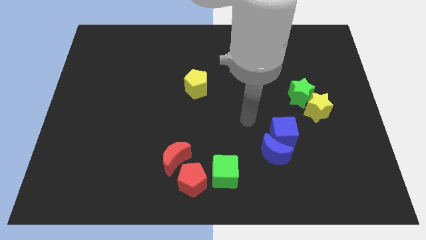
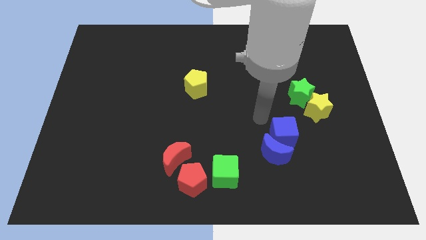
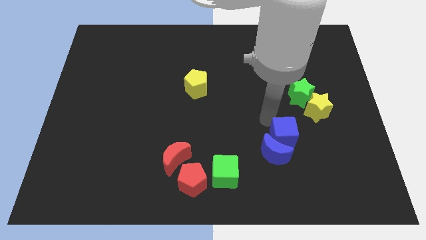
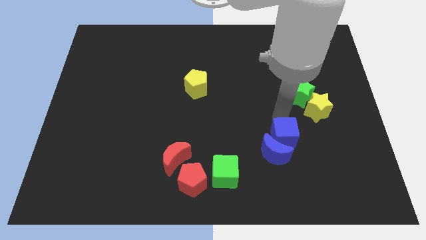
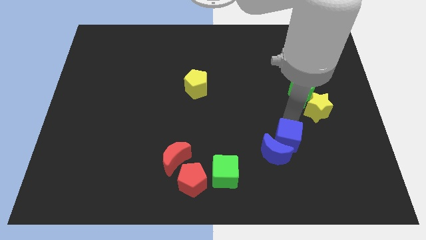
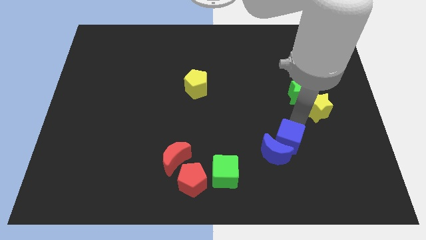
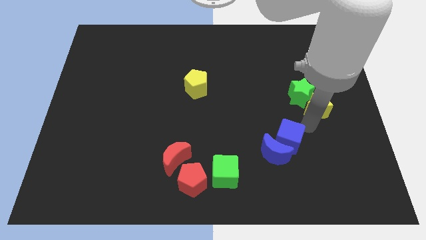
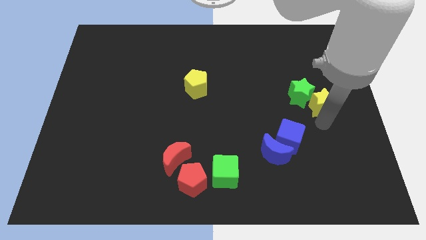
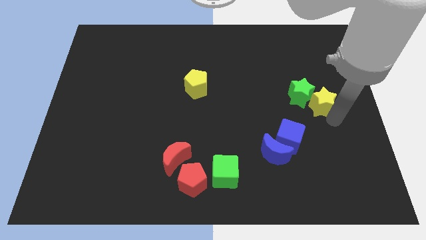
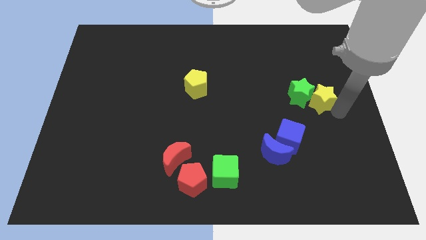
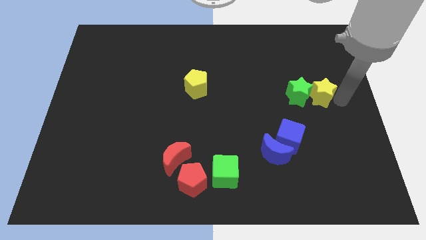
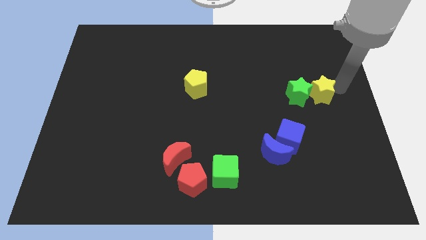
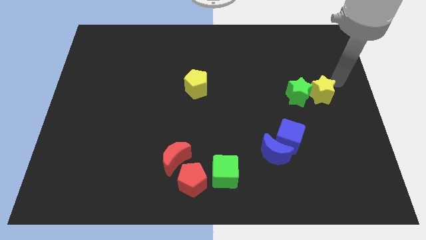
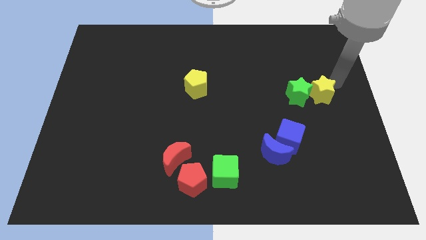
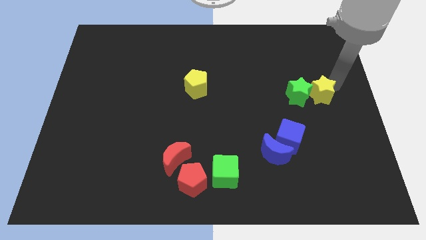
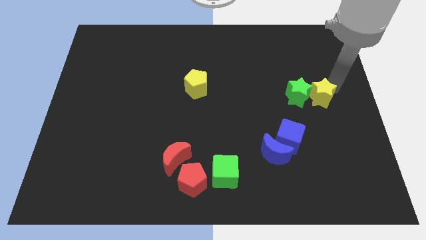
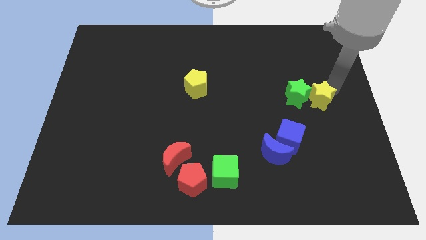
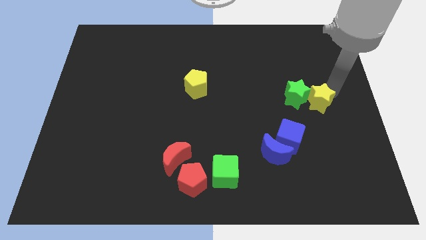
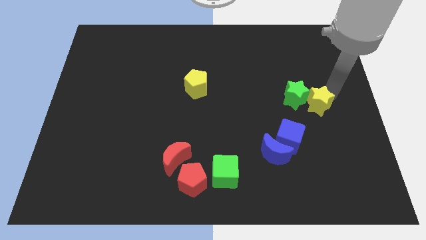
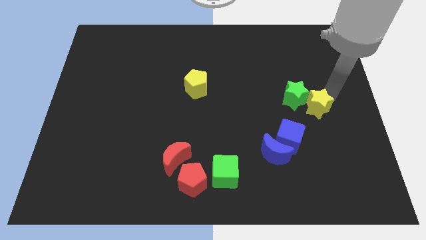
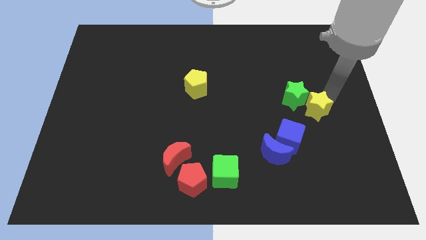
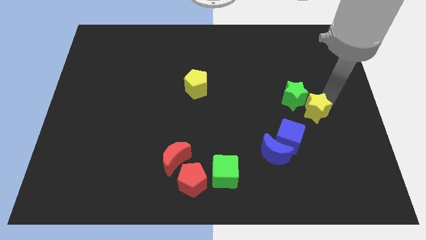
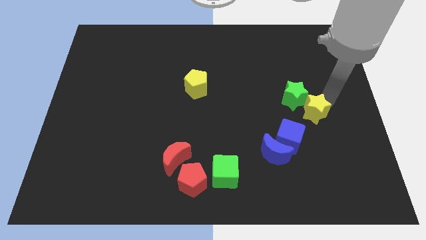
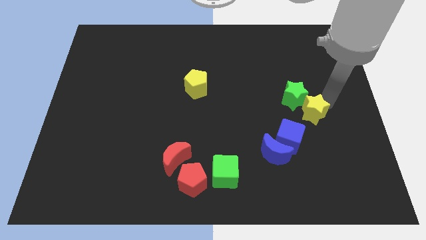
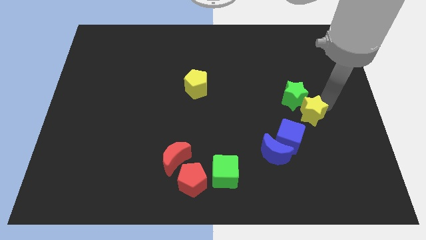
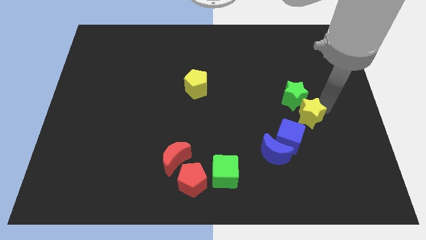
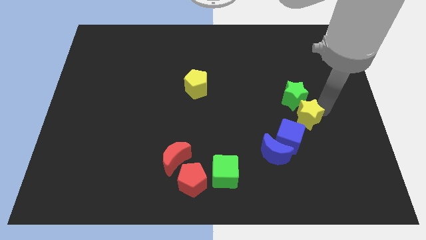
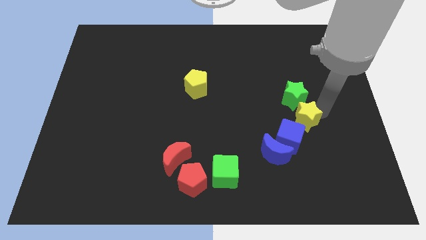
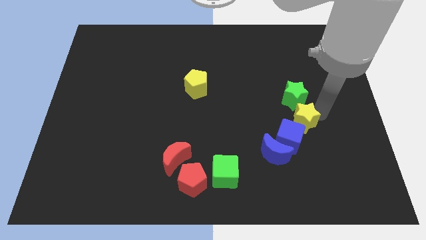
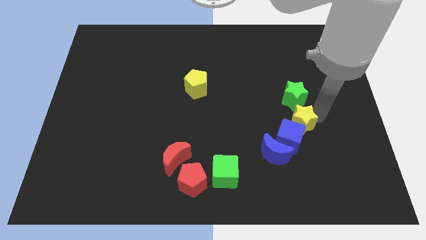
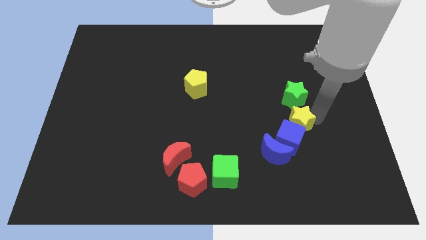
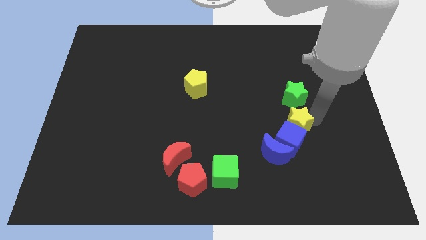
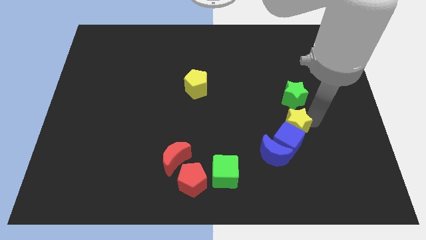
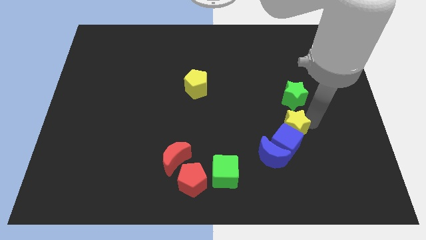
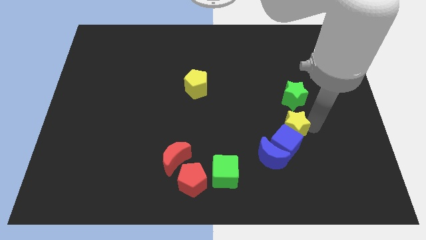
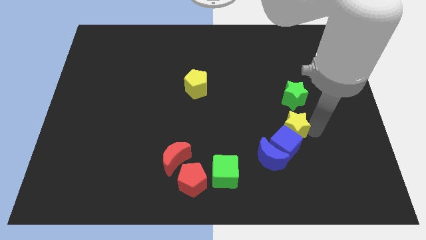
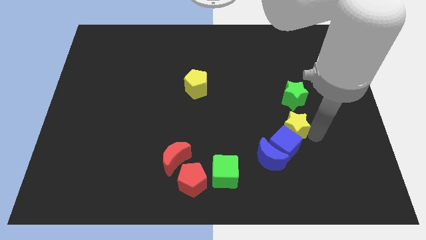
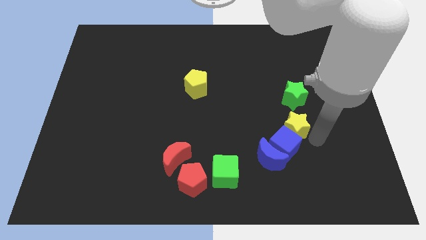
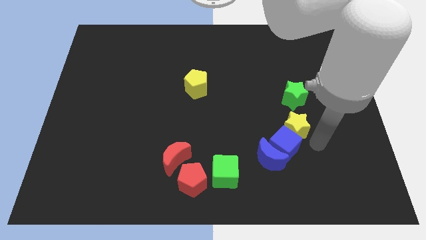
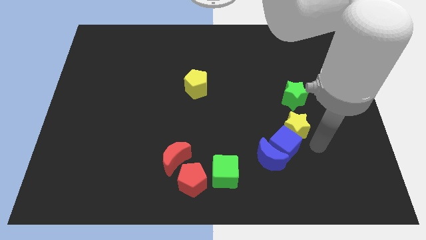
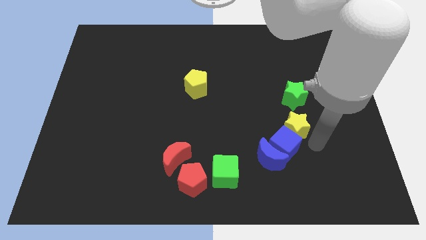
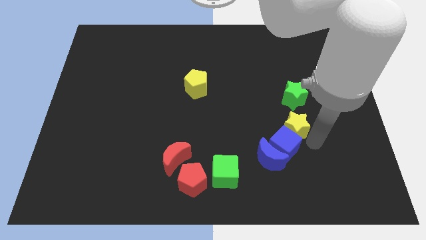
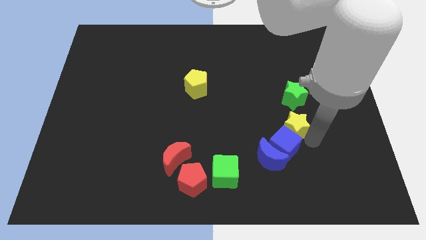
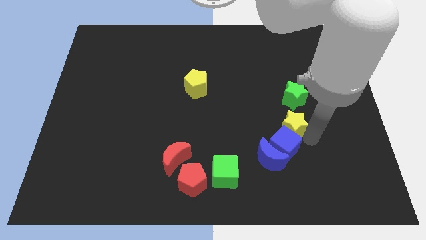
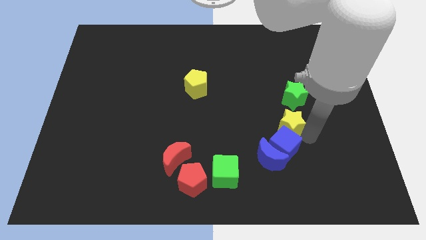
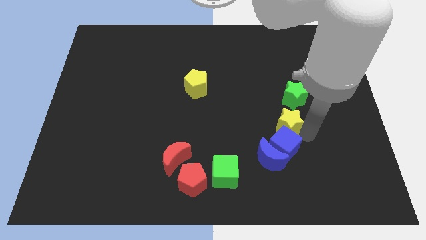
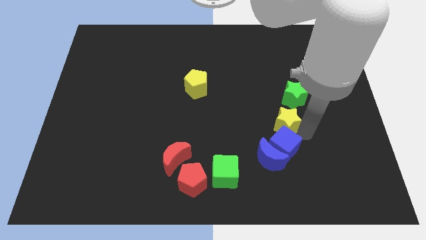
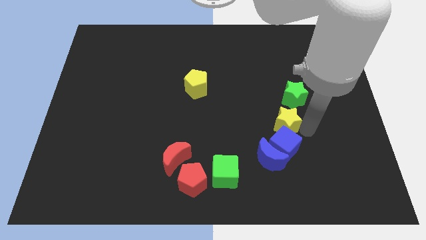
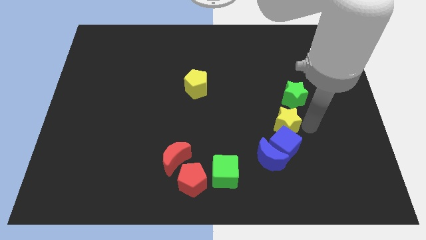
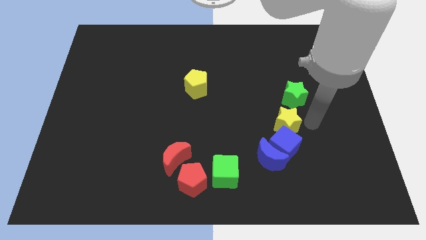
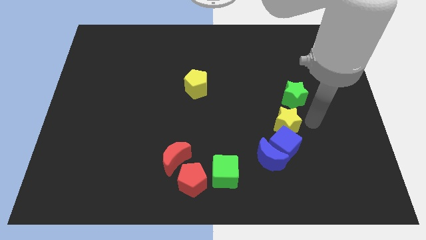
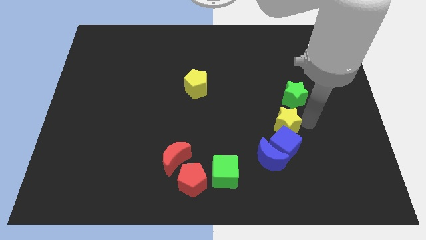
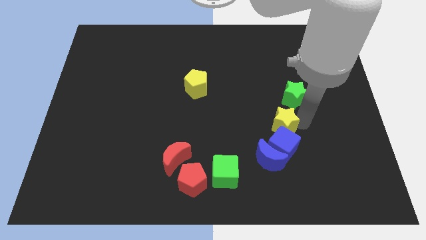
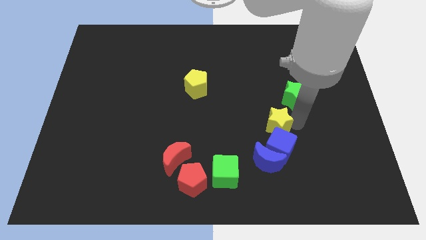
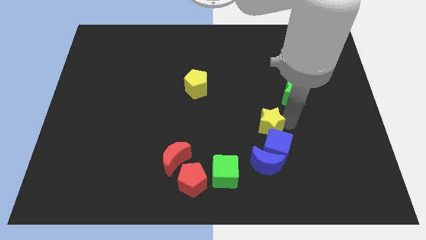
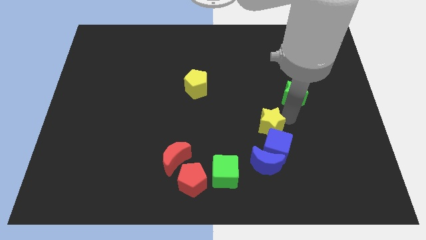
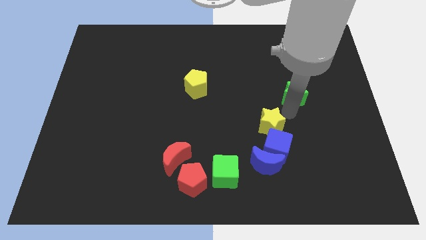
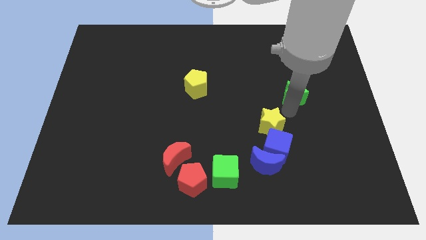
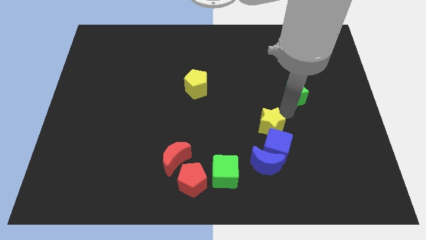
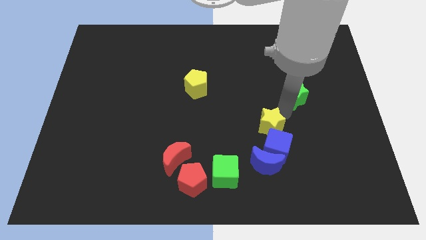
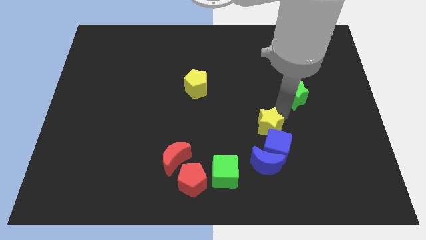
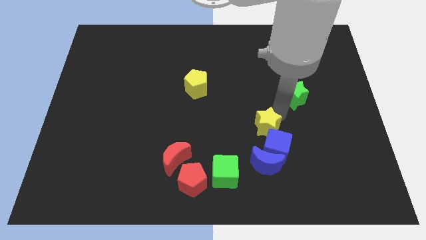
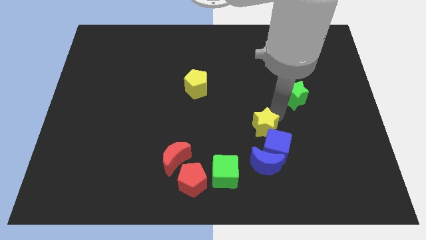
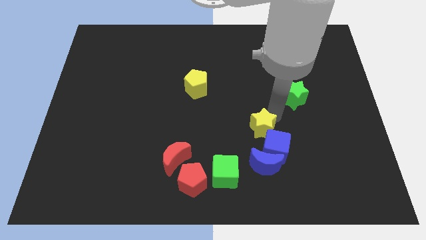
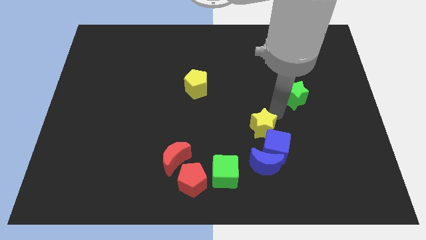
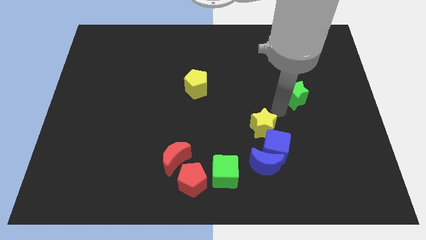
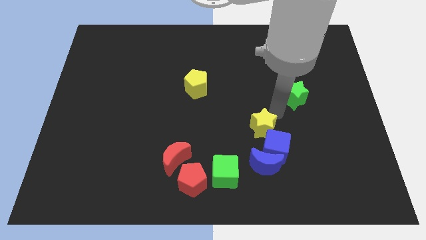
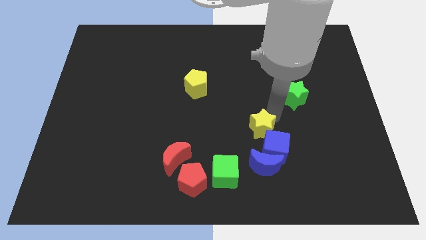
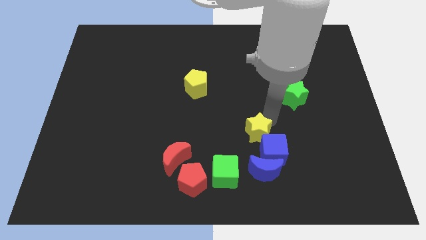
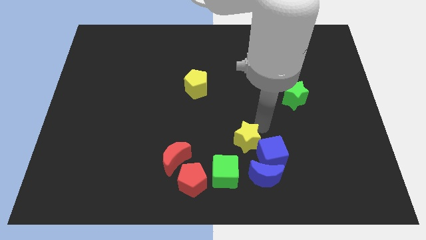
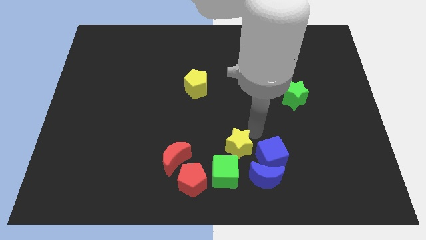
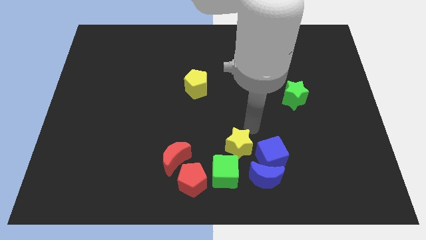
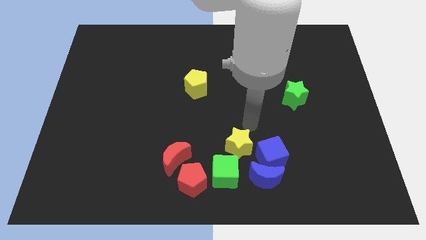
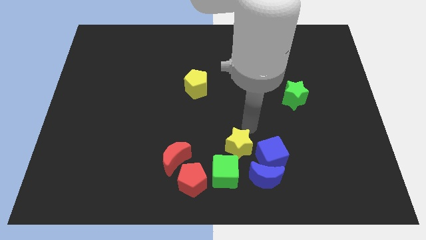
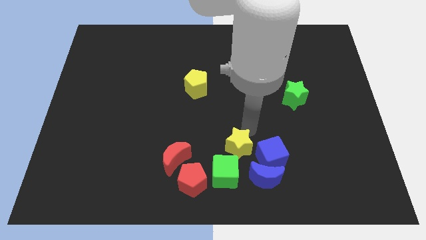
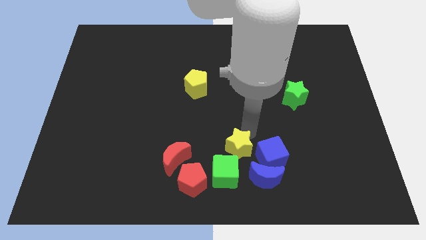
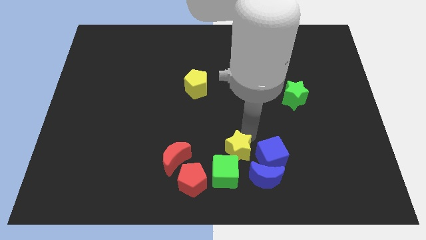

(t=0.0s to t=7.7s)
push the yellow star next to the green cube

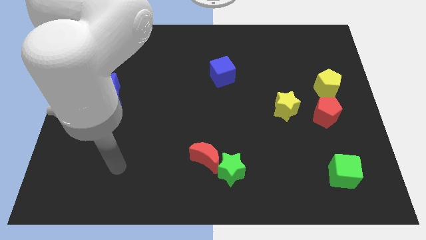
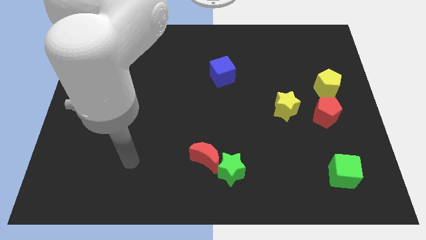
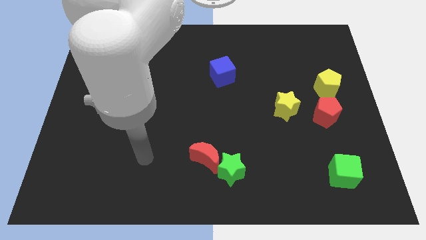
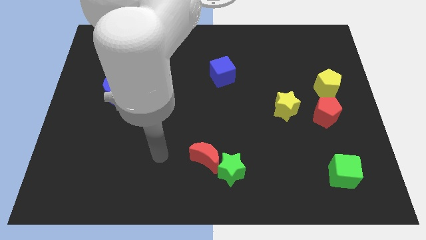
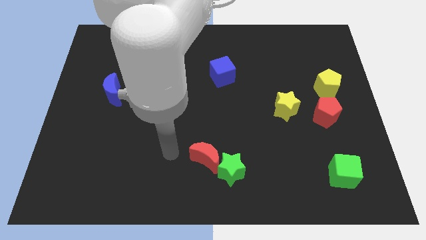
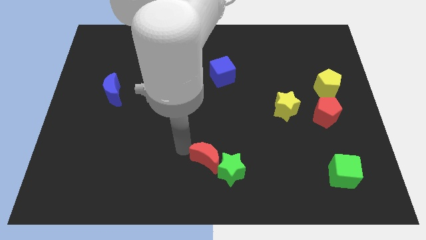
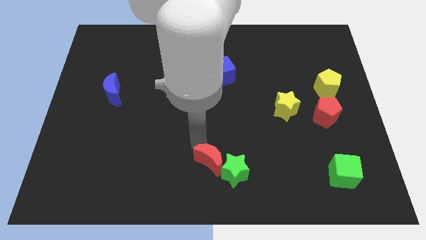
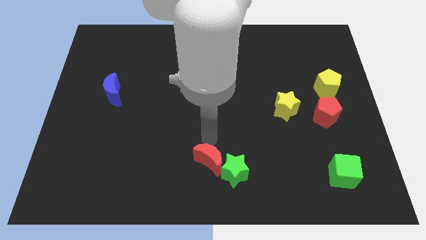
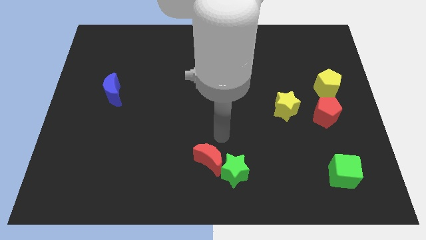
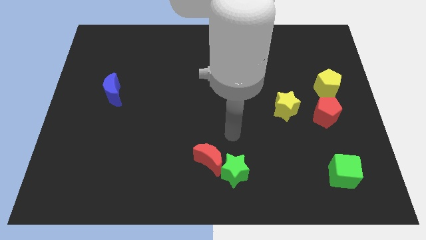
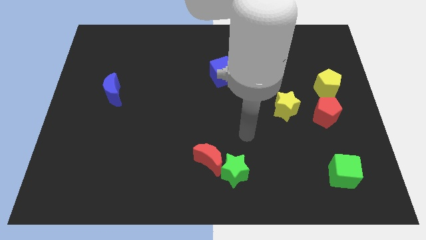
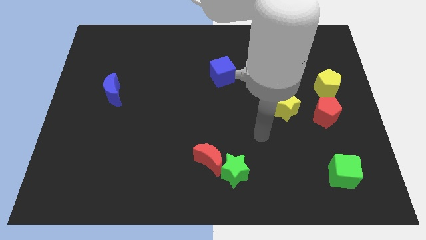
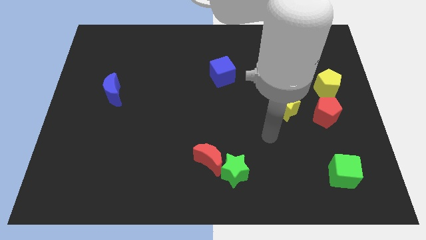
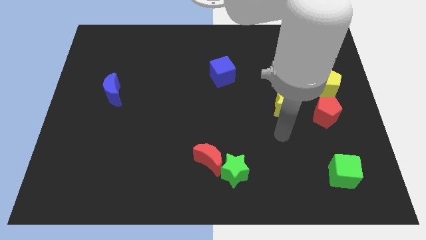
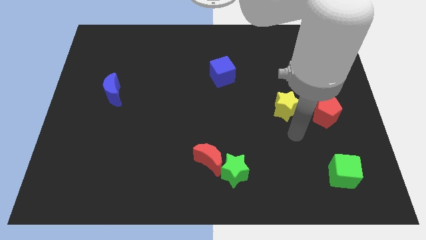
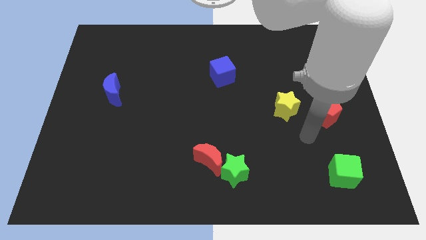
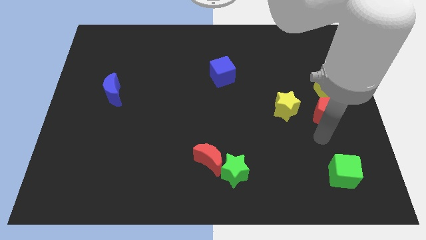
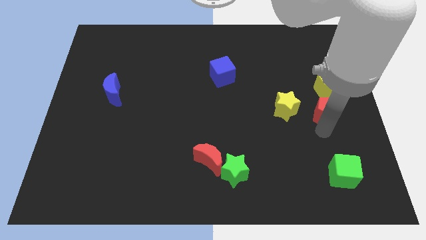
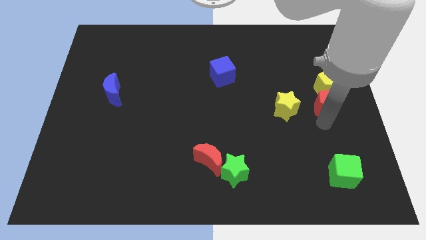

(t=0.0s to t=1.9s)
push the red pentagon close to the yellow pentagon
